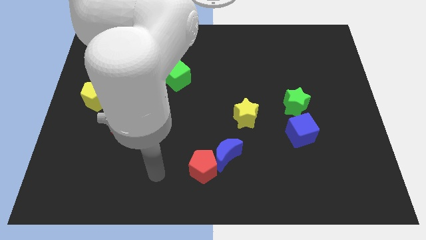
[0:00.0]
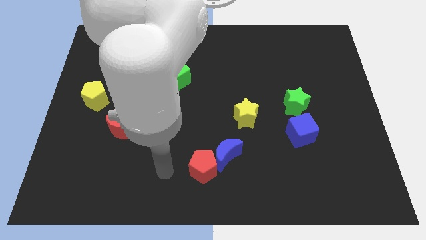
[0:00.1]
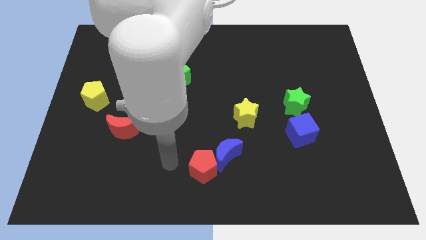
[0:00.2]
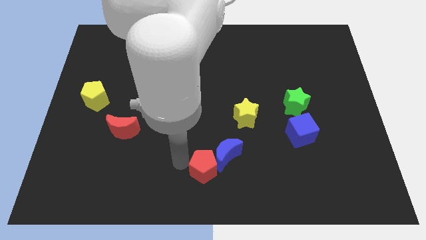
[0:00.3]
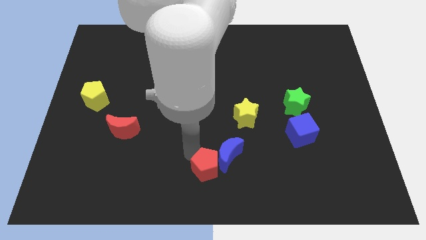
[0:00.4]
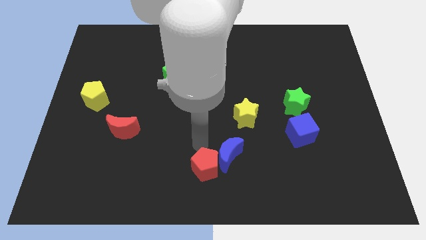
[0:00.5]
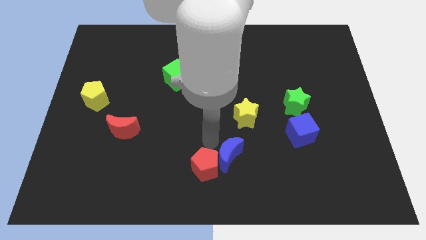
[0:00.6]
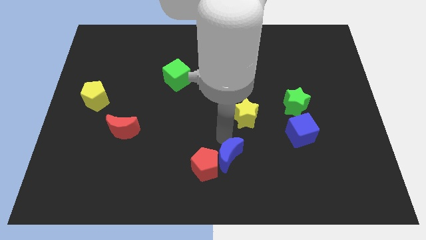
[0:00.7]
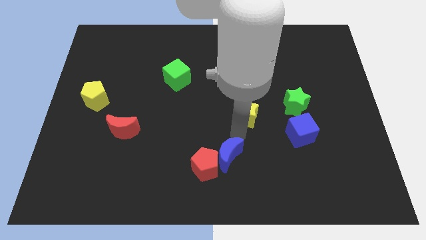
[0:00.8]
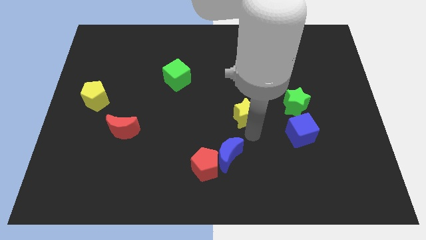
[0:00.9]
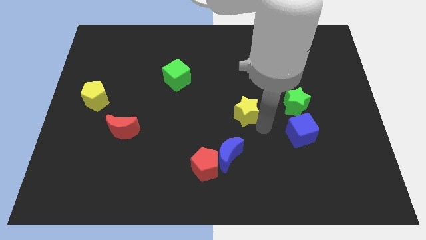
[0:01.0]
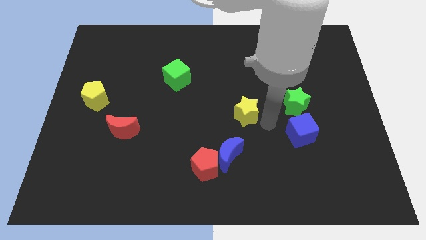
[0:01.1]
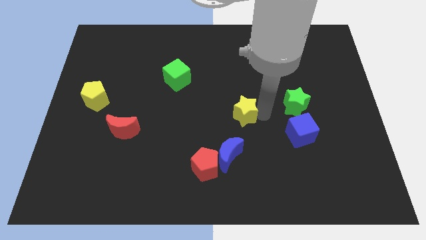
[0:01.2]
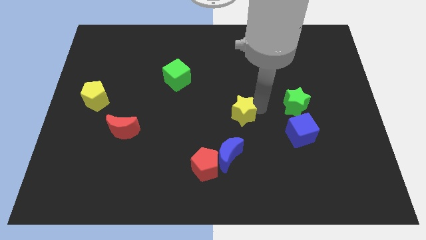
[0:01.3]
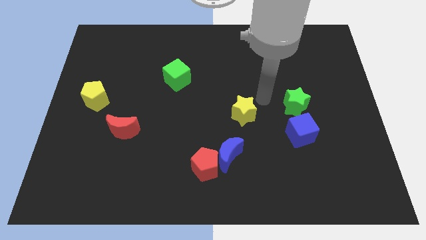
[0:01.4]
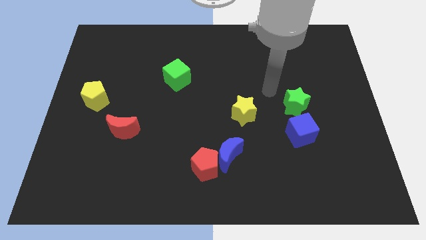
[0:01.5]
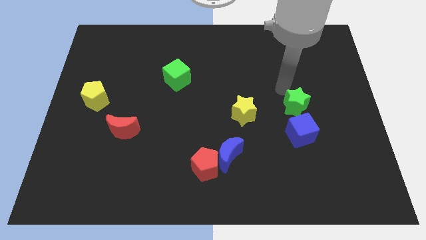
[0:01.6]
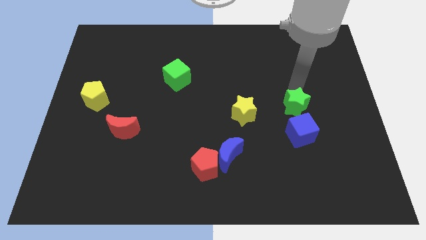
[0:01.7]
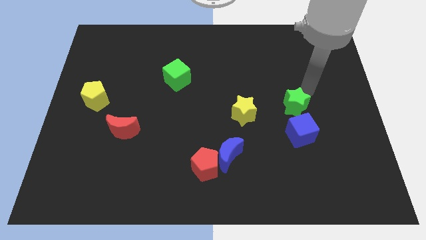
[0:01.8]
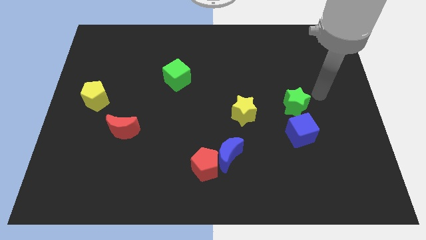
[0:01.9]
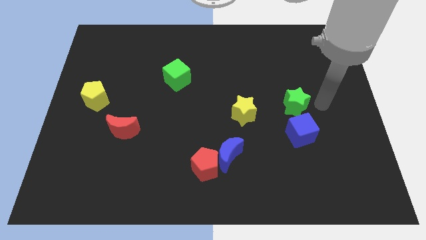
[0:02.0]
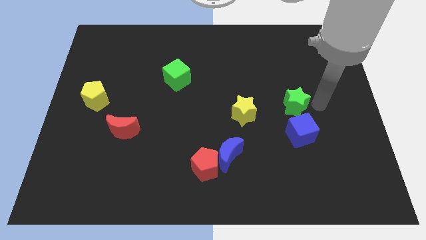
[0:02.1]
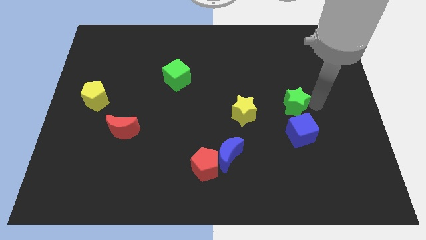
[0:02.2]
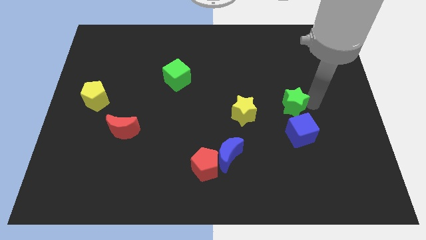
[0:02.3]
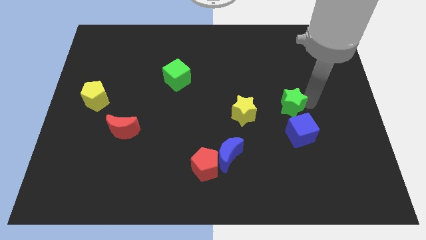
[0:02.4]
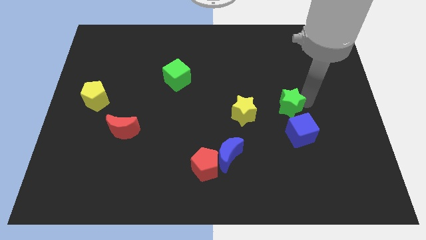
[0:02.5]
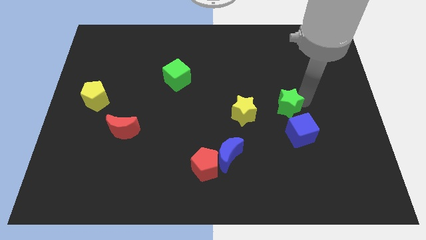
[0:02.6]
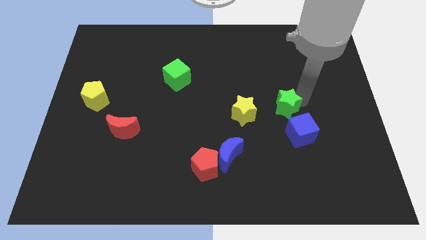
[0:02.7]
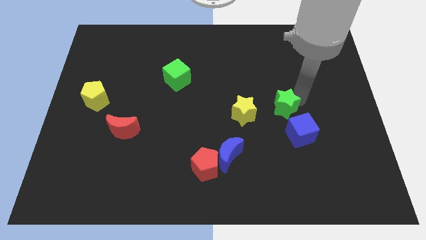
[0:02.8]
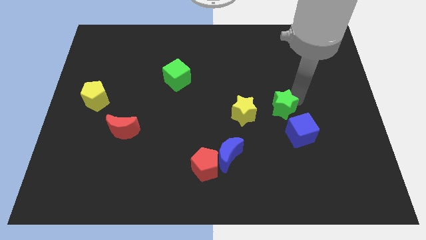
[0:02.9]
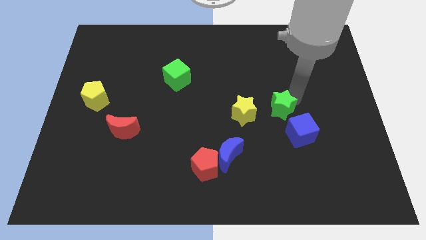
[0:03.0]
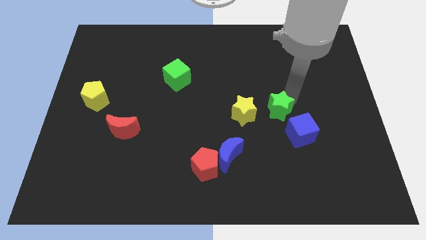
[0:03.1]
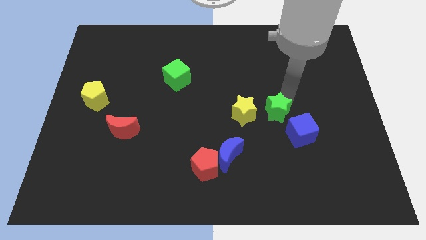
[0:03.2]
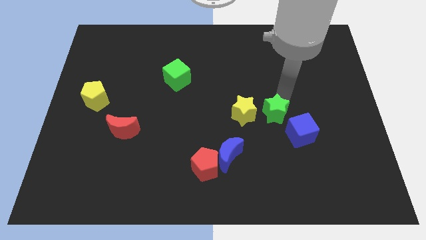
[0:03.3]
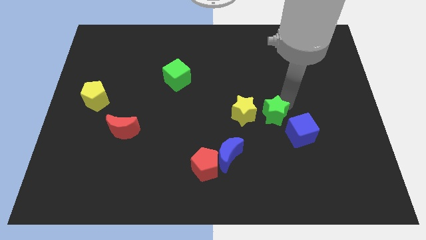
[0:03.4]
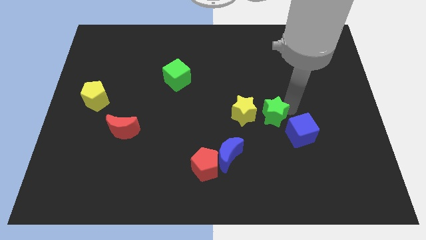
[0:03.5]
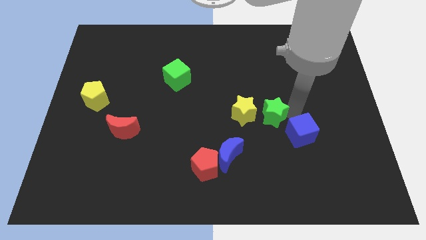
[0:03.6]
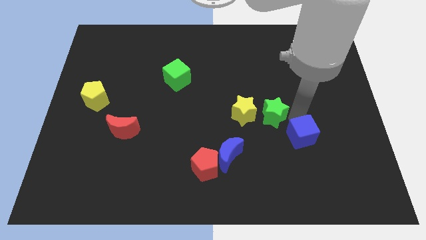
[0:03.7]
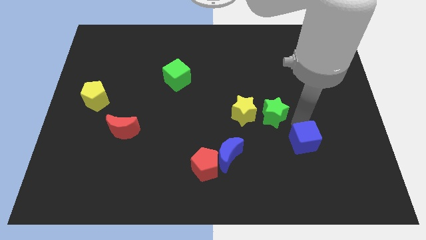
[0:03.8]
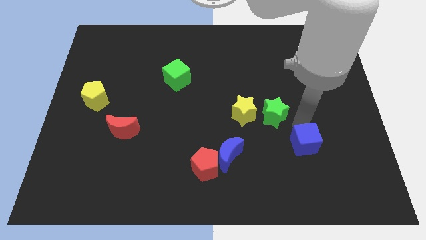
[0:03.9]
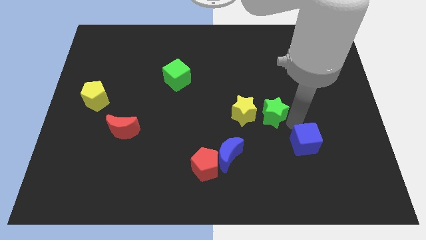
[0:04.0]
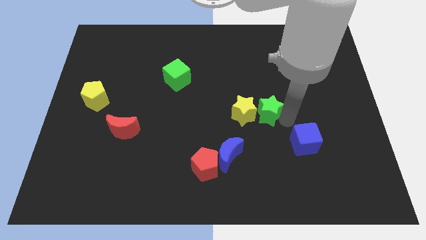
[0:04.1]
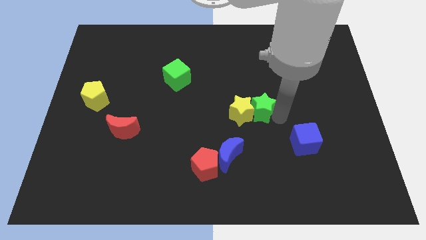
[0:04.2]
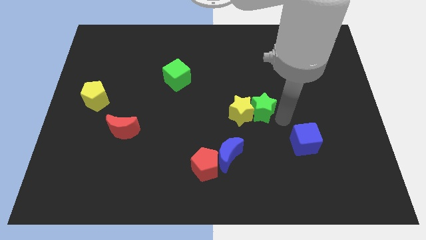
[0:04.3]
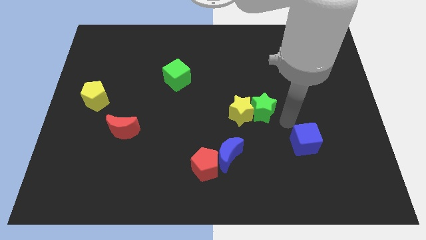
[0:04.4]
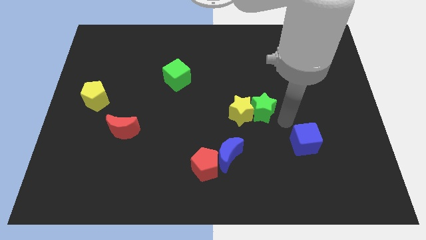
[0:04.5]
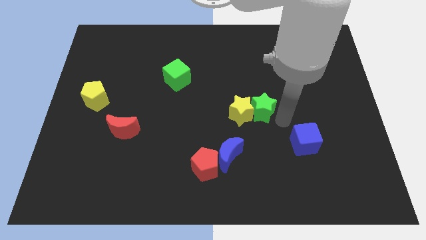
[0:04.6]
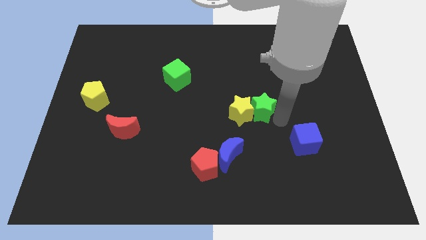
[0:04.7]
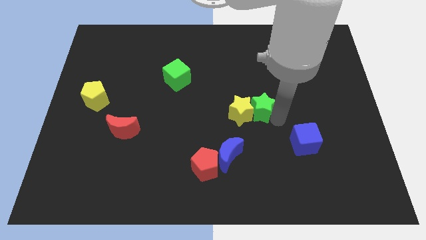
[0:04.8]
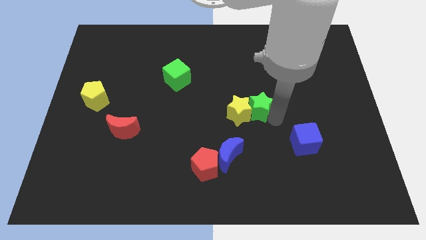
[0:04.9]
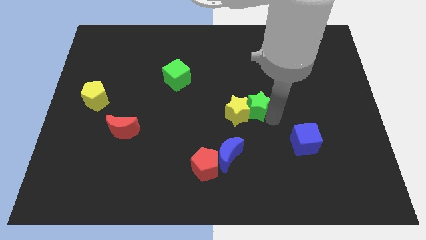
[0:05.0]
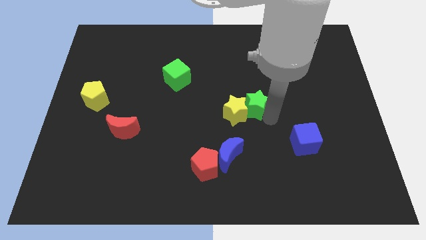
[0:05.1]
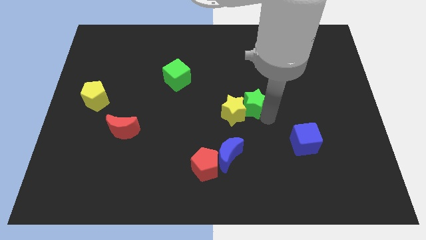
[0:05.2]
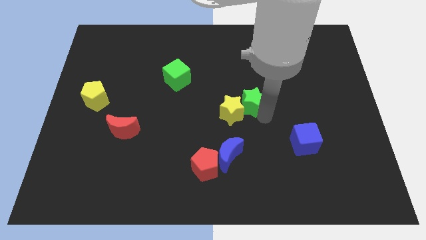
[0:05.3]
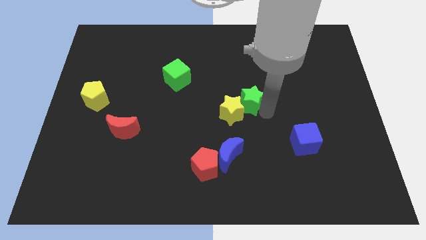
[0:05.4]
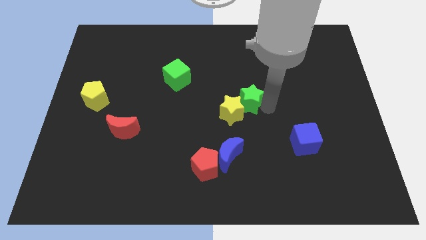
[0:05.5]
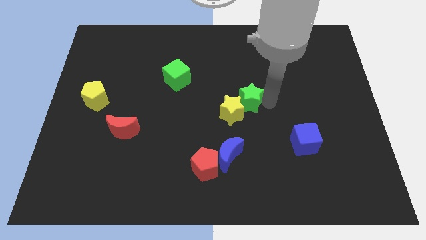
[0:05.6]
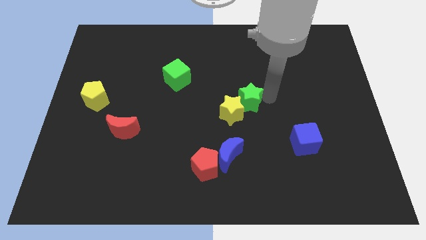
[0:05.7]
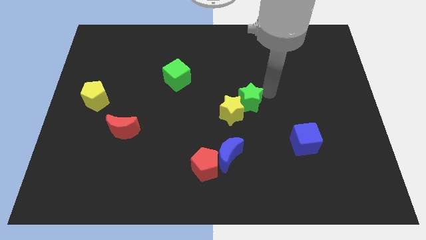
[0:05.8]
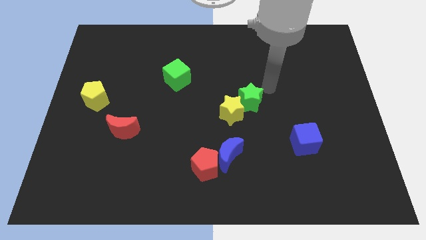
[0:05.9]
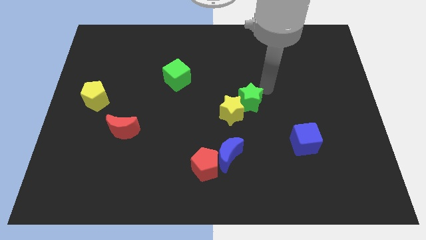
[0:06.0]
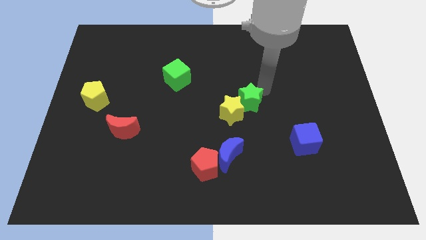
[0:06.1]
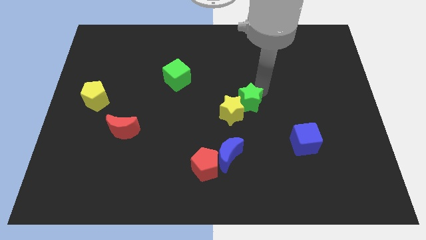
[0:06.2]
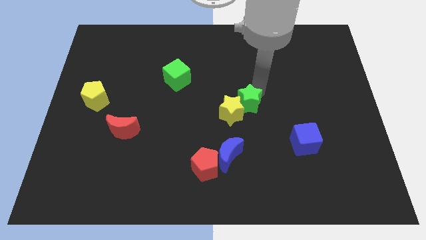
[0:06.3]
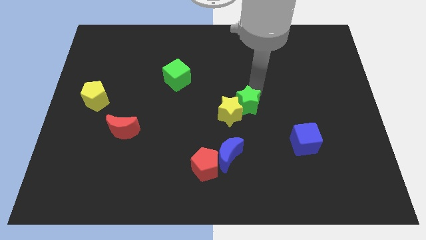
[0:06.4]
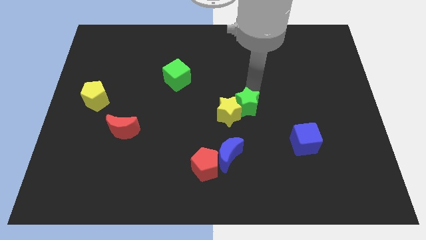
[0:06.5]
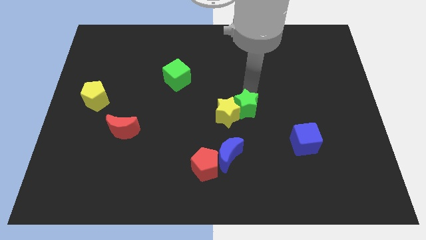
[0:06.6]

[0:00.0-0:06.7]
push the green star to the top side of the blue moon
